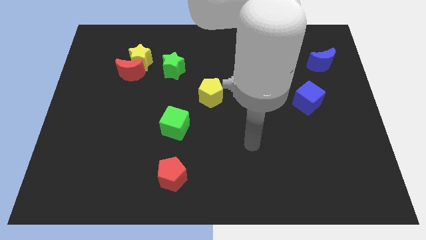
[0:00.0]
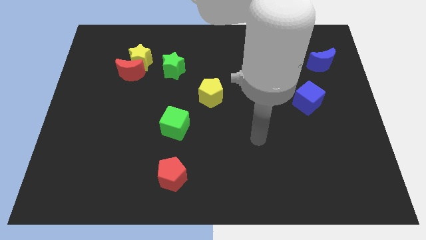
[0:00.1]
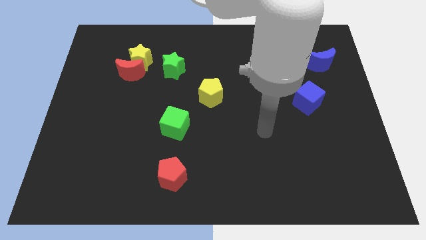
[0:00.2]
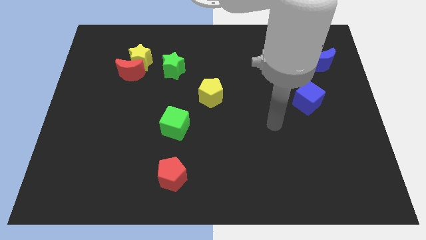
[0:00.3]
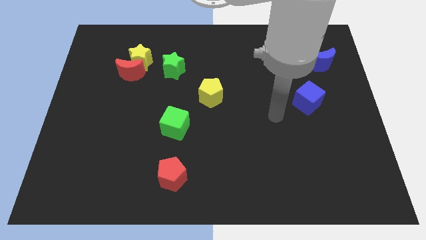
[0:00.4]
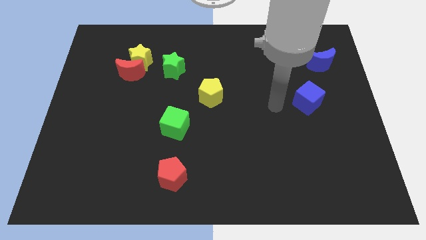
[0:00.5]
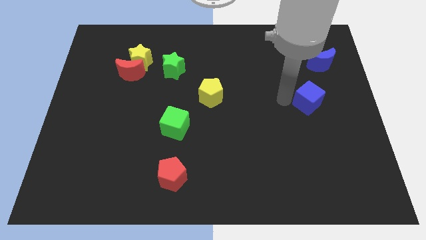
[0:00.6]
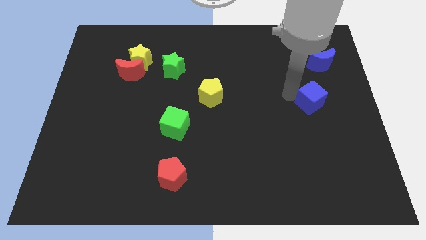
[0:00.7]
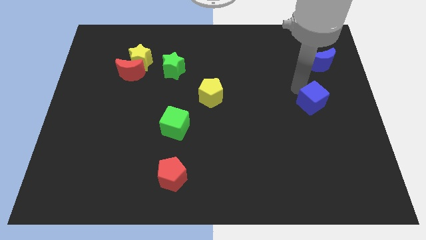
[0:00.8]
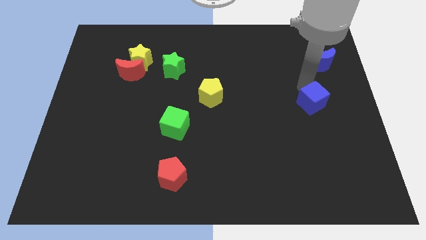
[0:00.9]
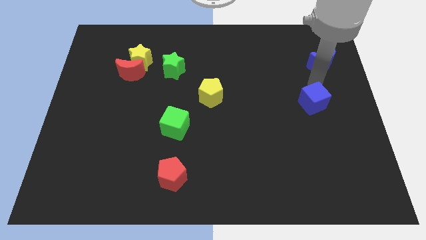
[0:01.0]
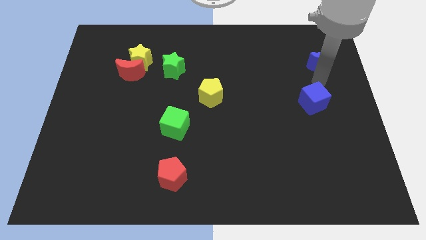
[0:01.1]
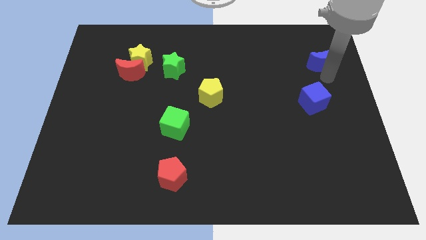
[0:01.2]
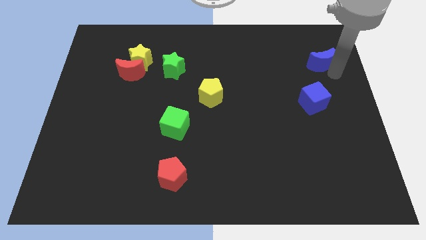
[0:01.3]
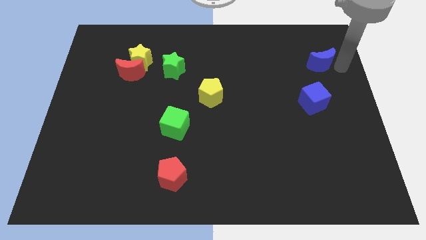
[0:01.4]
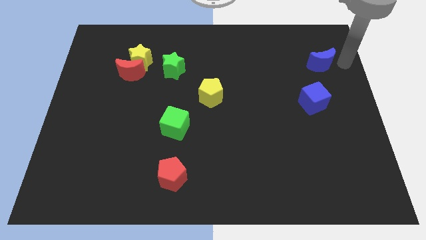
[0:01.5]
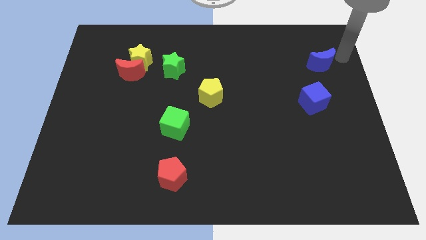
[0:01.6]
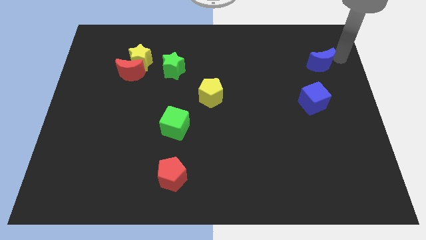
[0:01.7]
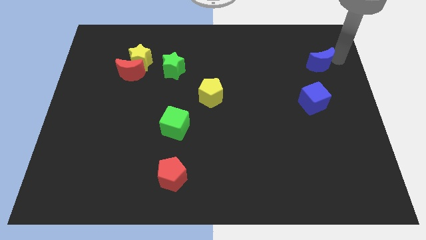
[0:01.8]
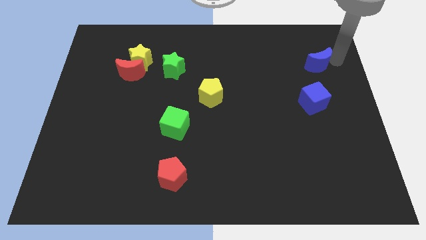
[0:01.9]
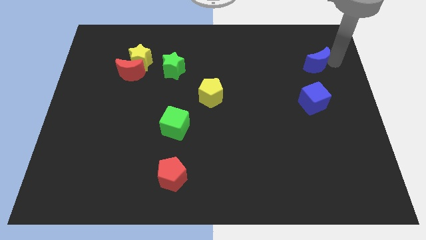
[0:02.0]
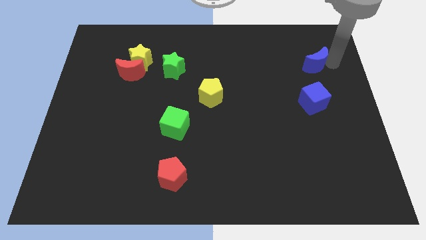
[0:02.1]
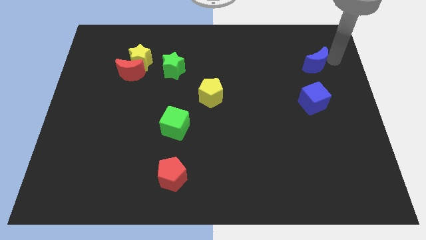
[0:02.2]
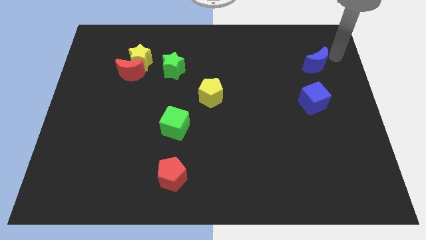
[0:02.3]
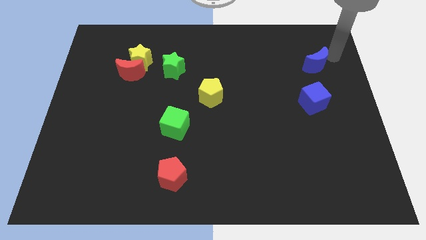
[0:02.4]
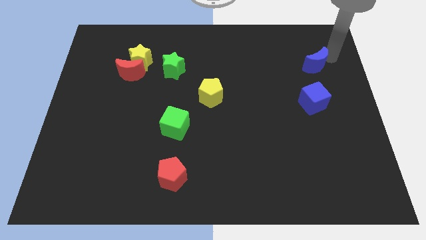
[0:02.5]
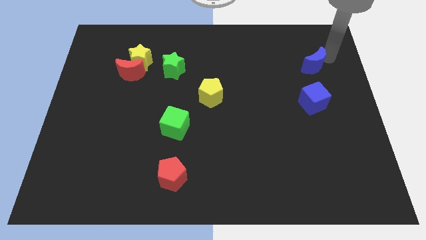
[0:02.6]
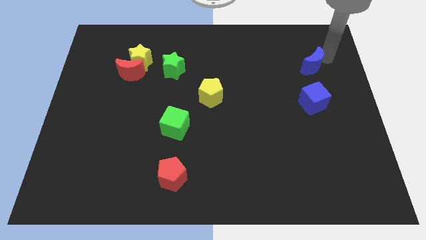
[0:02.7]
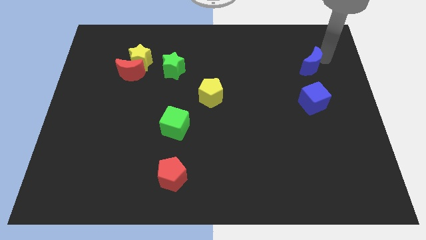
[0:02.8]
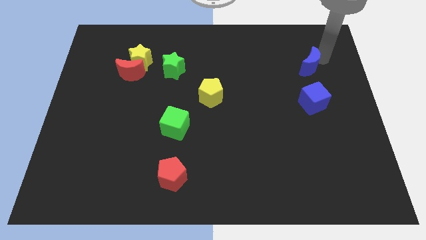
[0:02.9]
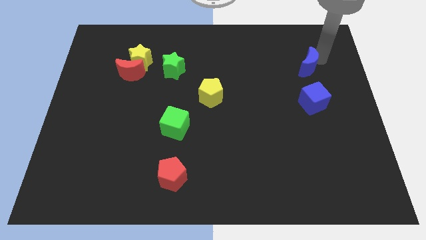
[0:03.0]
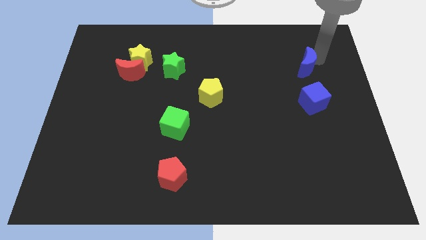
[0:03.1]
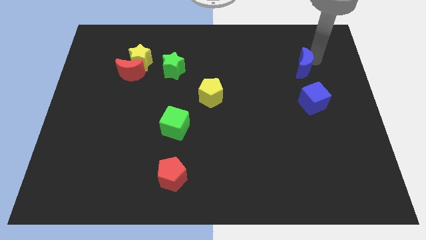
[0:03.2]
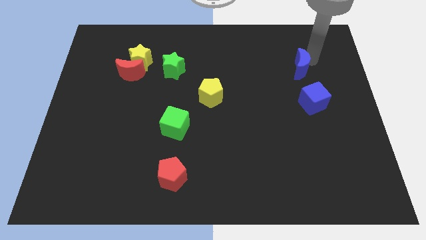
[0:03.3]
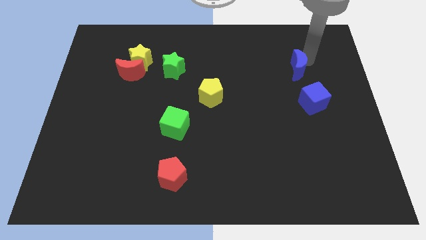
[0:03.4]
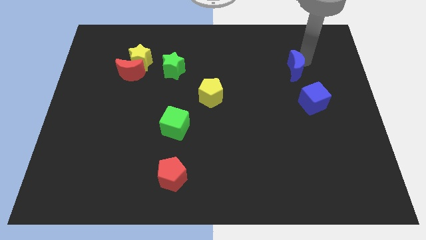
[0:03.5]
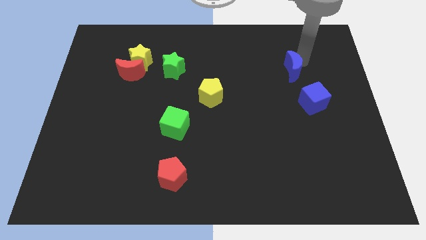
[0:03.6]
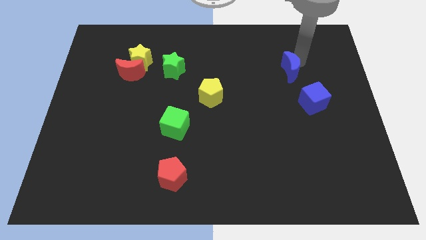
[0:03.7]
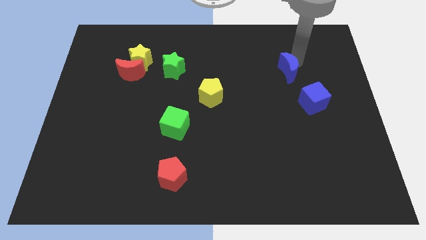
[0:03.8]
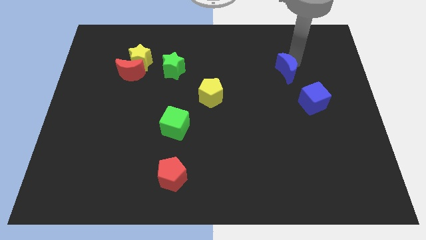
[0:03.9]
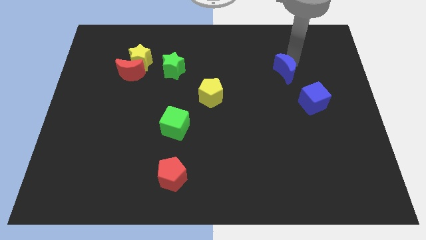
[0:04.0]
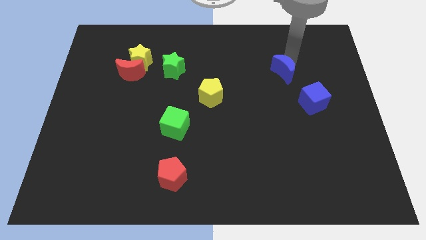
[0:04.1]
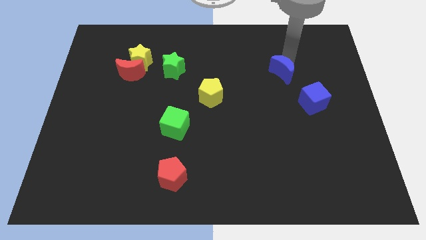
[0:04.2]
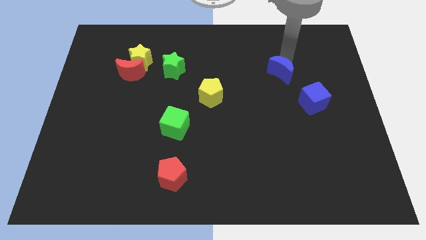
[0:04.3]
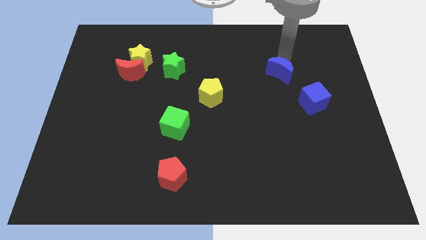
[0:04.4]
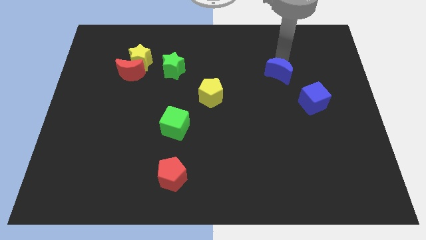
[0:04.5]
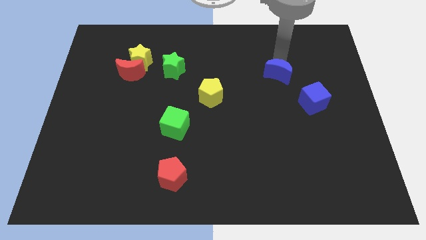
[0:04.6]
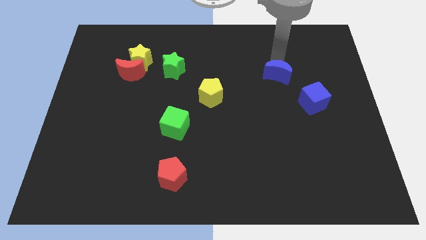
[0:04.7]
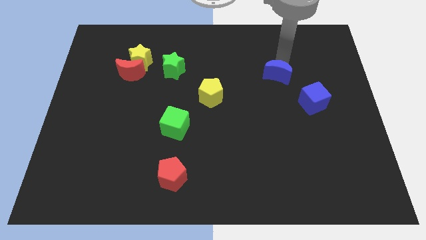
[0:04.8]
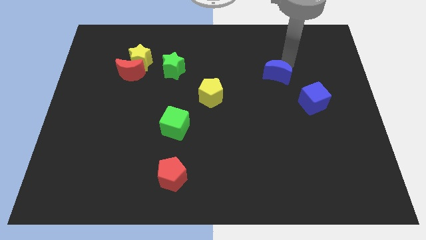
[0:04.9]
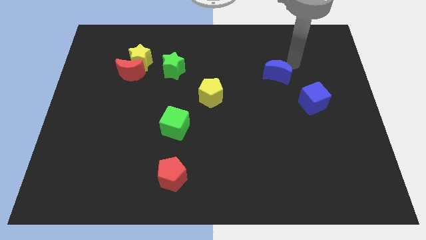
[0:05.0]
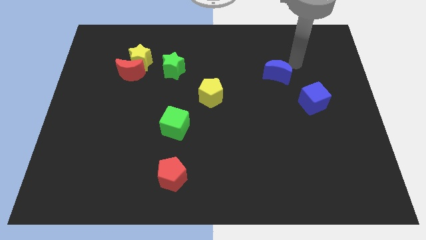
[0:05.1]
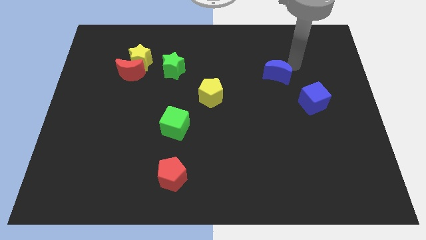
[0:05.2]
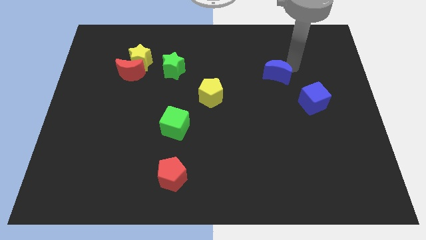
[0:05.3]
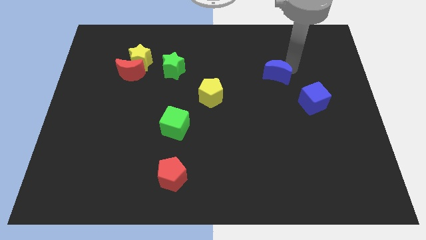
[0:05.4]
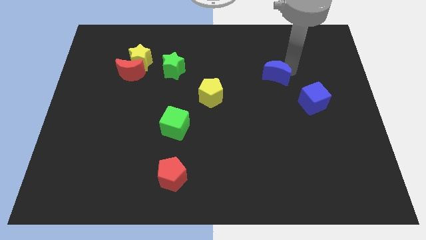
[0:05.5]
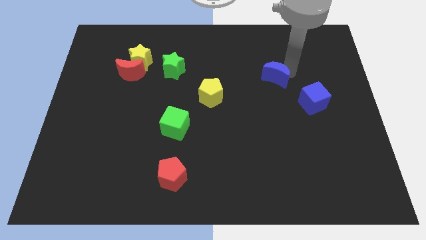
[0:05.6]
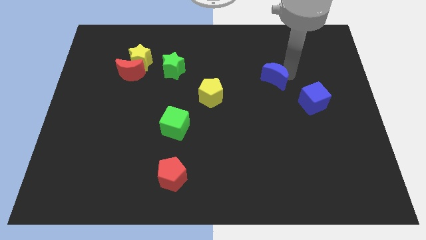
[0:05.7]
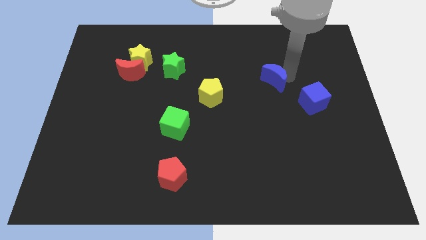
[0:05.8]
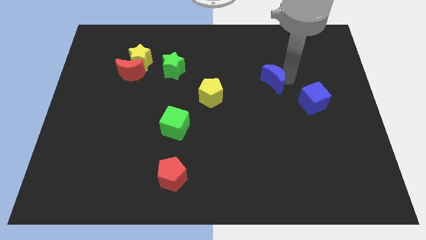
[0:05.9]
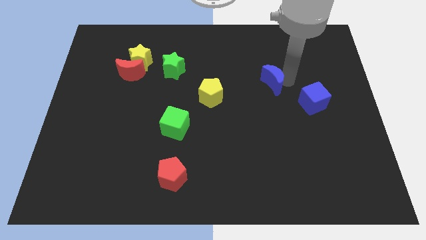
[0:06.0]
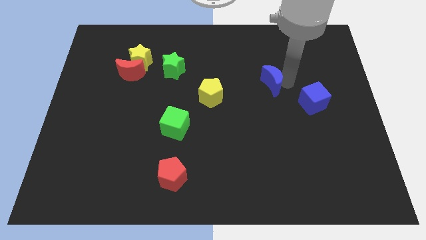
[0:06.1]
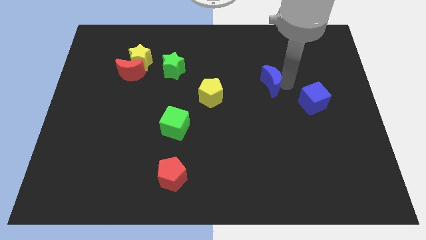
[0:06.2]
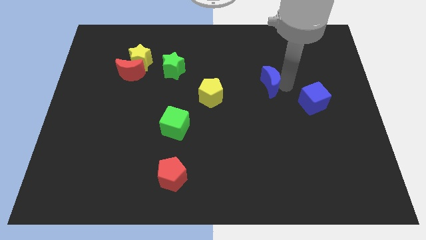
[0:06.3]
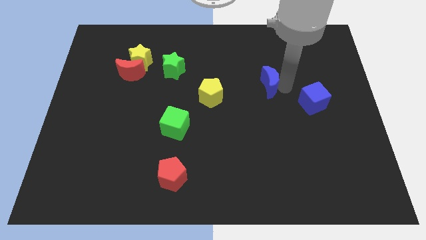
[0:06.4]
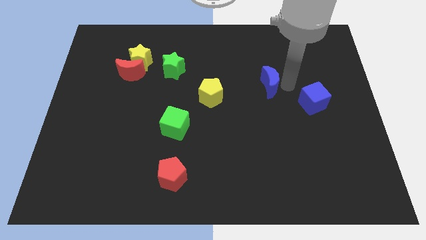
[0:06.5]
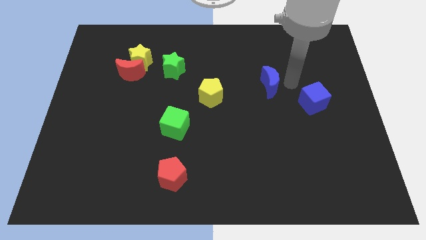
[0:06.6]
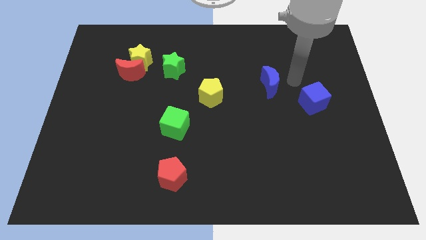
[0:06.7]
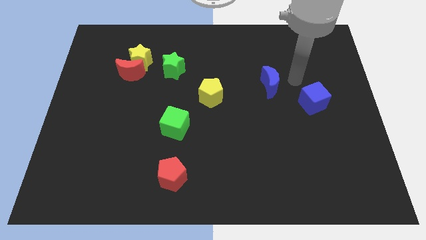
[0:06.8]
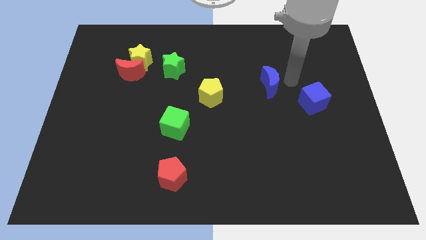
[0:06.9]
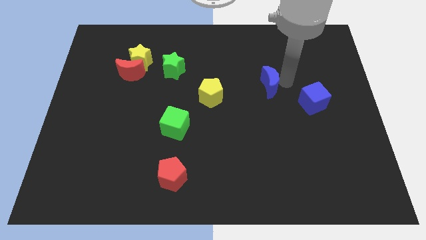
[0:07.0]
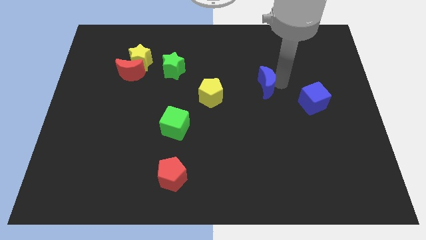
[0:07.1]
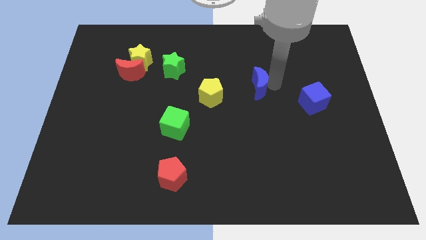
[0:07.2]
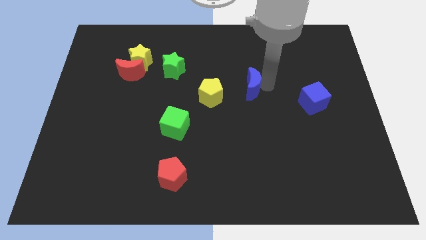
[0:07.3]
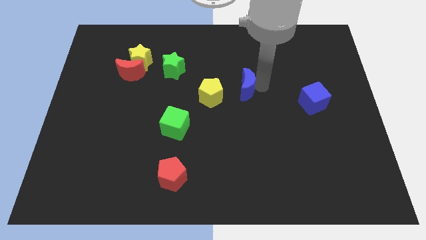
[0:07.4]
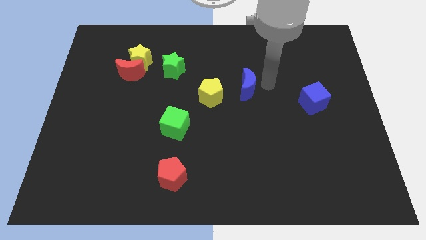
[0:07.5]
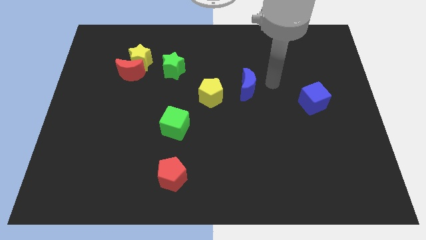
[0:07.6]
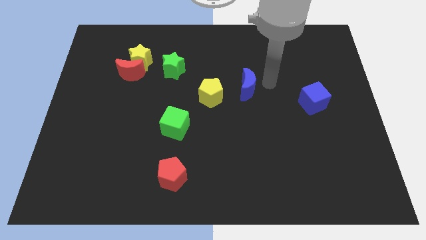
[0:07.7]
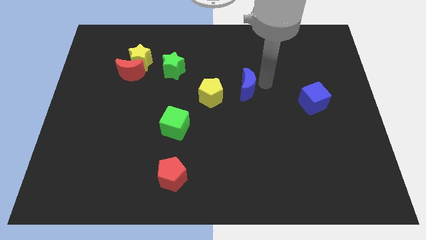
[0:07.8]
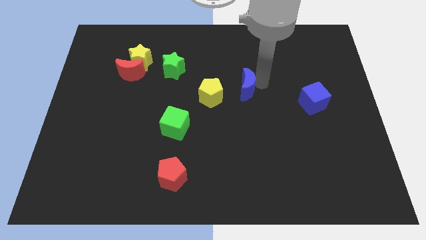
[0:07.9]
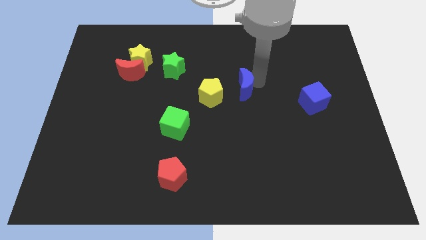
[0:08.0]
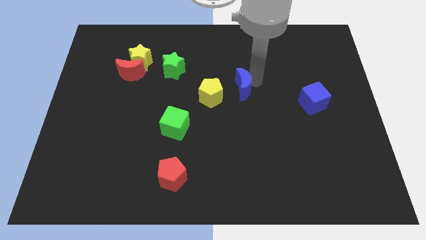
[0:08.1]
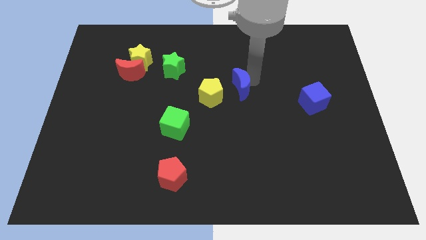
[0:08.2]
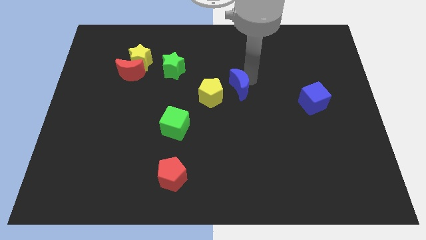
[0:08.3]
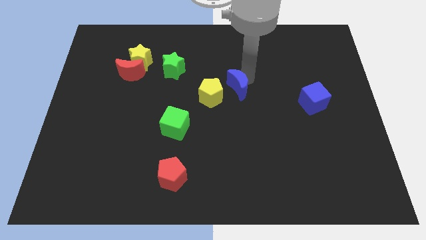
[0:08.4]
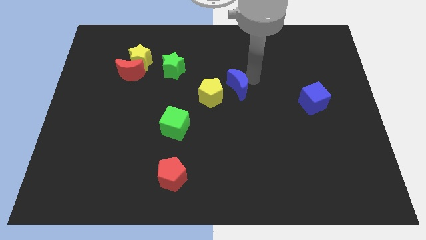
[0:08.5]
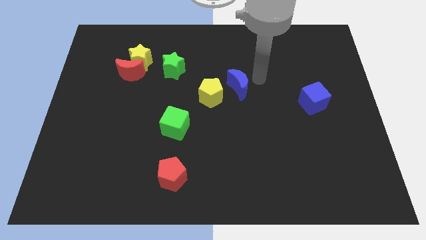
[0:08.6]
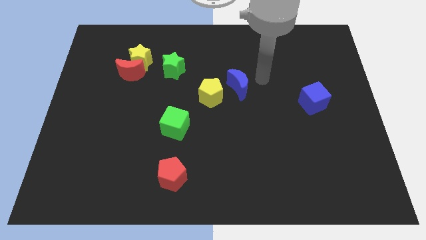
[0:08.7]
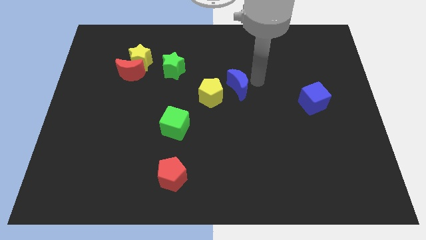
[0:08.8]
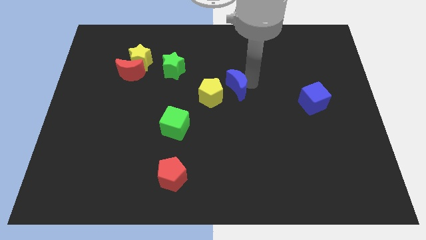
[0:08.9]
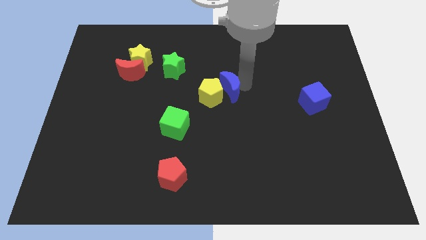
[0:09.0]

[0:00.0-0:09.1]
put the blue moon next to the yellow pentagon
